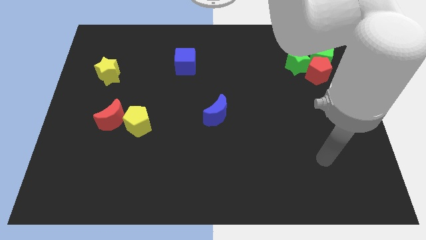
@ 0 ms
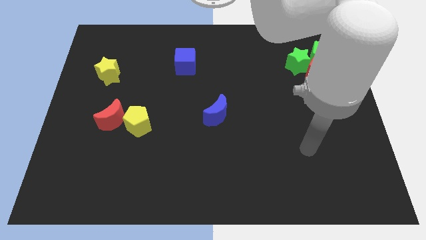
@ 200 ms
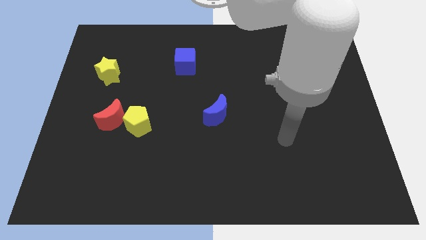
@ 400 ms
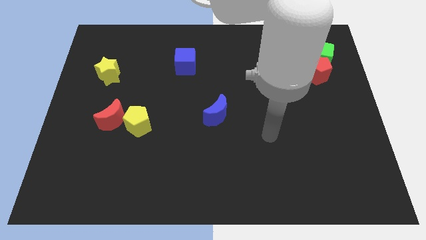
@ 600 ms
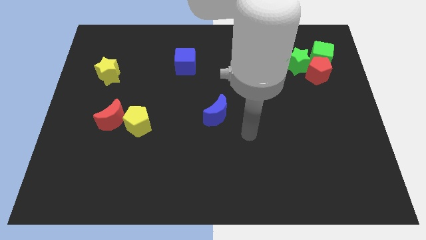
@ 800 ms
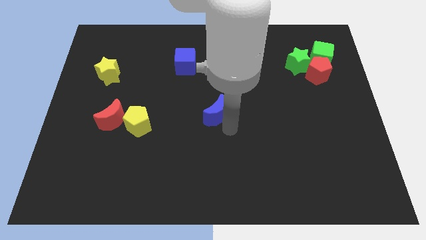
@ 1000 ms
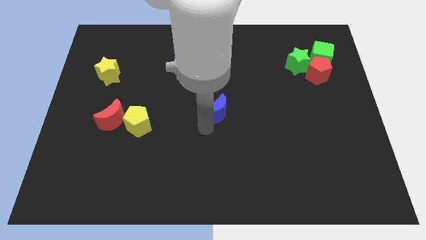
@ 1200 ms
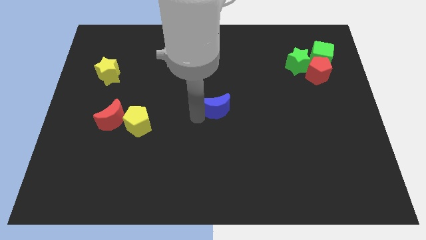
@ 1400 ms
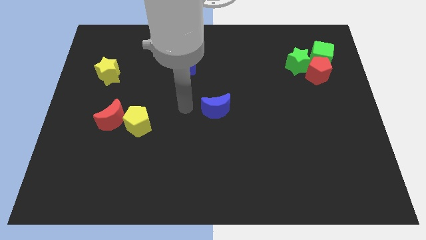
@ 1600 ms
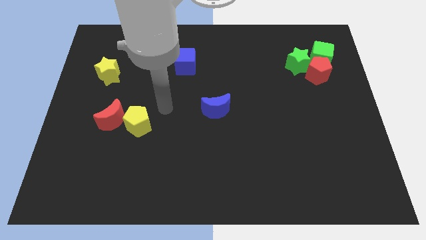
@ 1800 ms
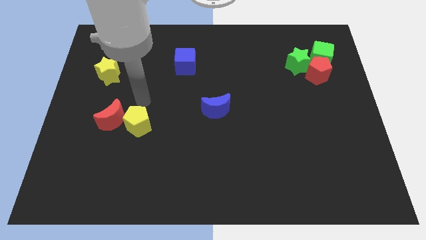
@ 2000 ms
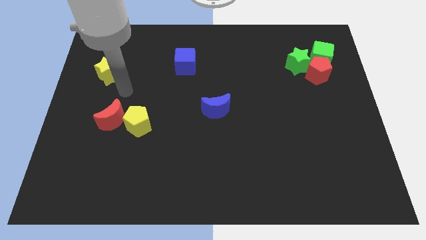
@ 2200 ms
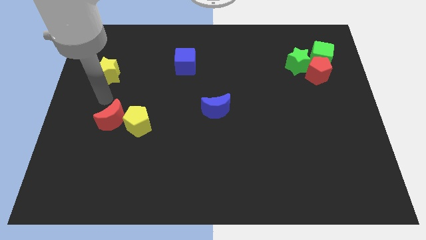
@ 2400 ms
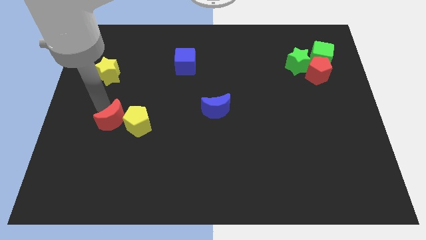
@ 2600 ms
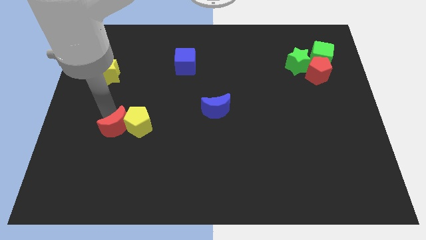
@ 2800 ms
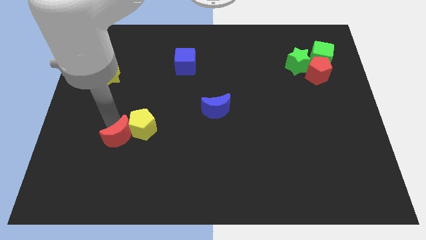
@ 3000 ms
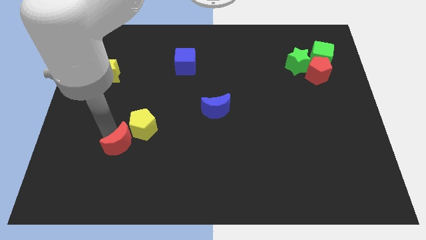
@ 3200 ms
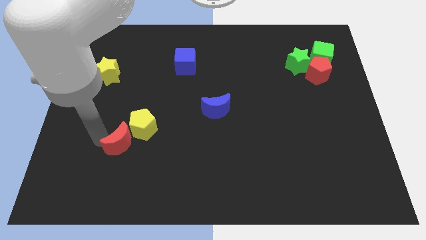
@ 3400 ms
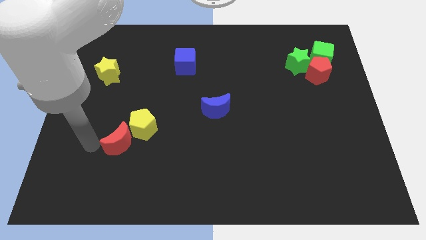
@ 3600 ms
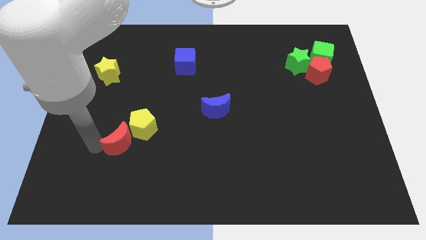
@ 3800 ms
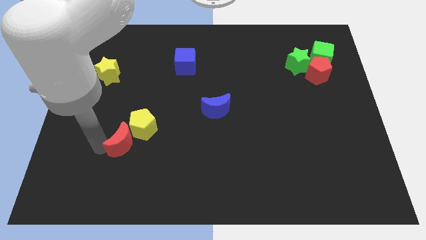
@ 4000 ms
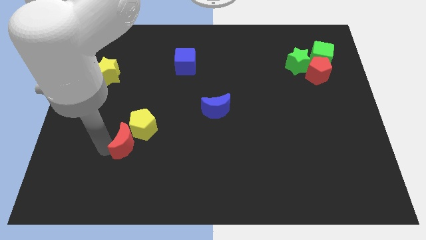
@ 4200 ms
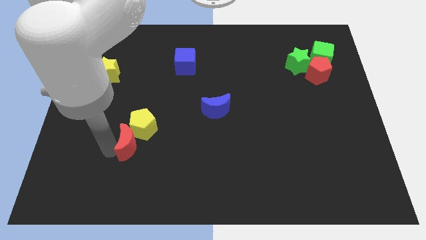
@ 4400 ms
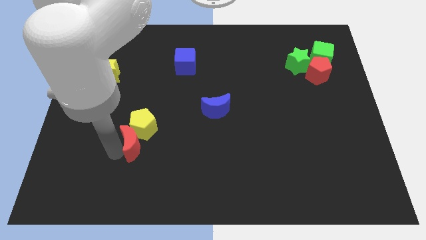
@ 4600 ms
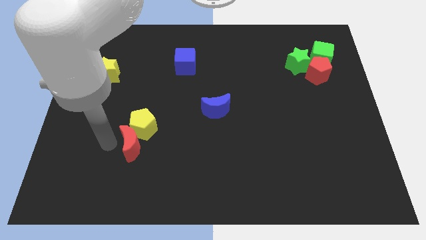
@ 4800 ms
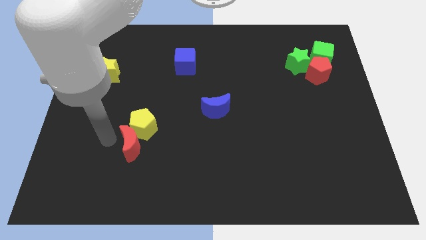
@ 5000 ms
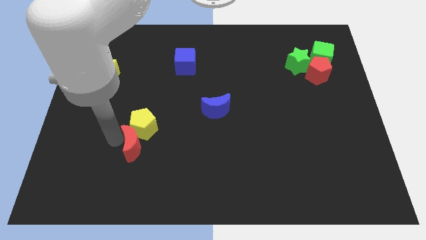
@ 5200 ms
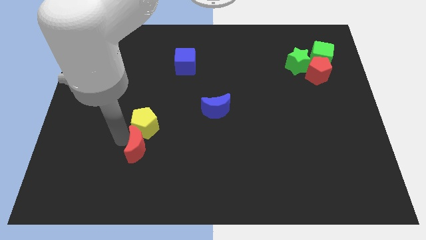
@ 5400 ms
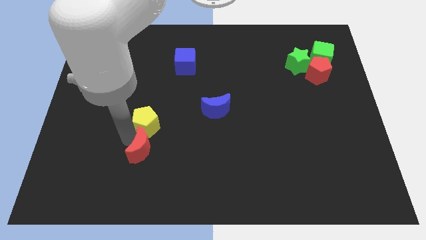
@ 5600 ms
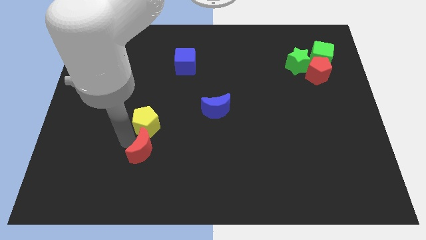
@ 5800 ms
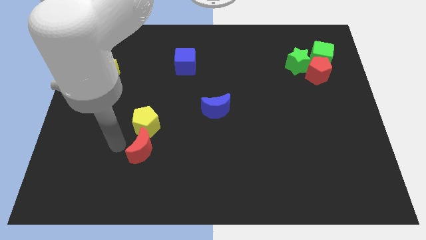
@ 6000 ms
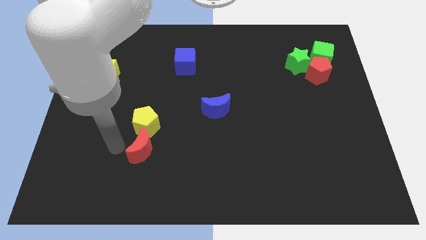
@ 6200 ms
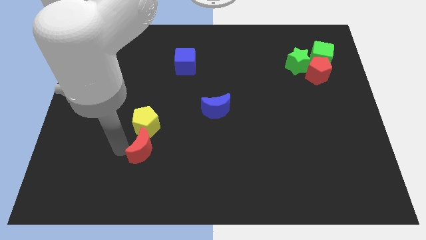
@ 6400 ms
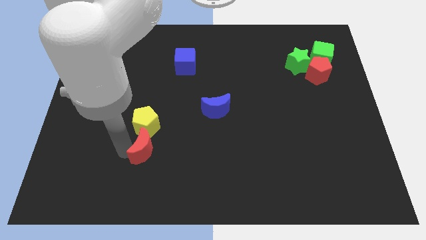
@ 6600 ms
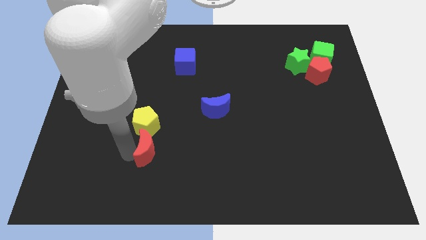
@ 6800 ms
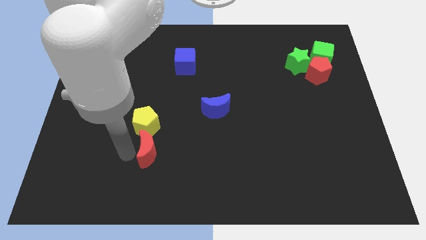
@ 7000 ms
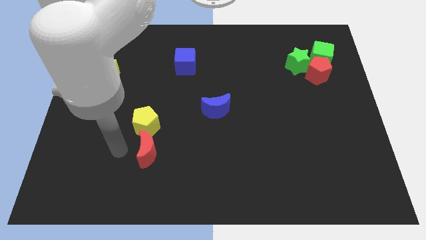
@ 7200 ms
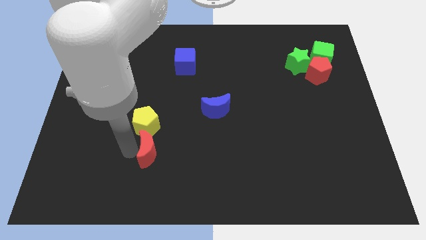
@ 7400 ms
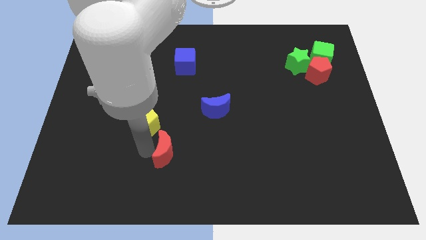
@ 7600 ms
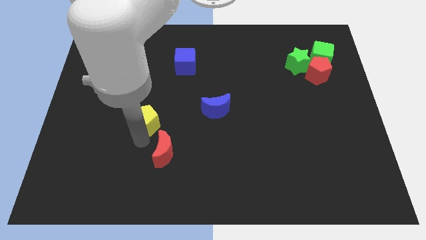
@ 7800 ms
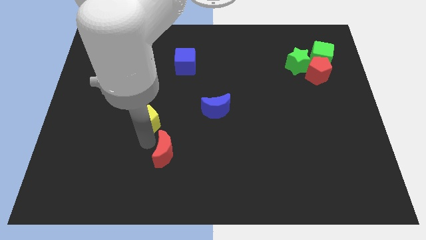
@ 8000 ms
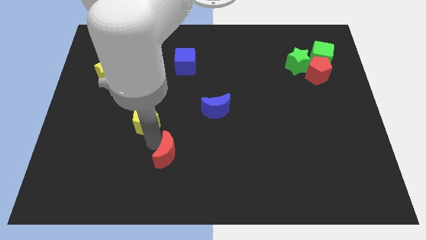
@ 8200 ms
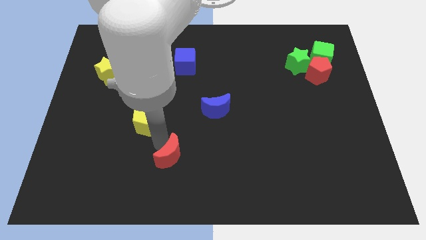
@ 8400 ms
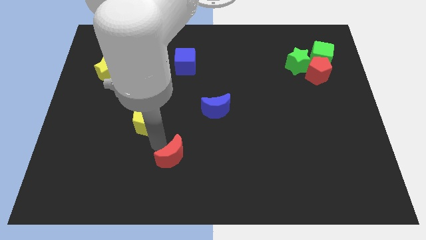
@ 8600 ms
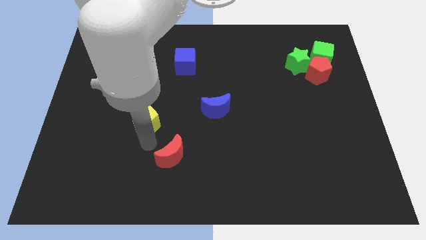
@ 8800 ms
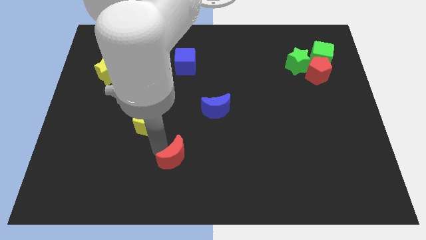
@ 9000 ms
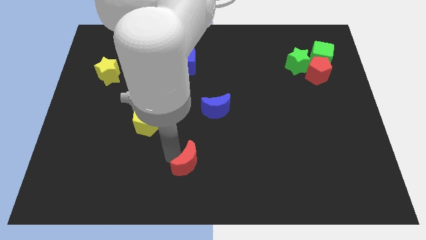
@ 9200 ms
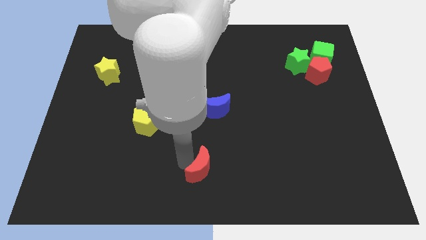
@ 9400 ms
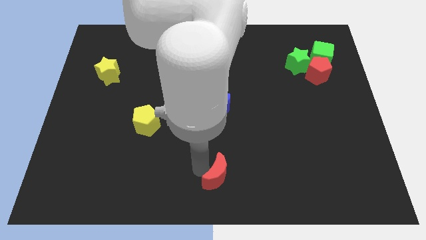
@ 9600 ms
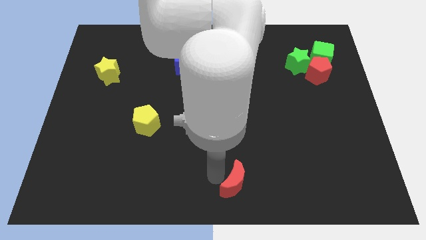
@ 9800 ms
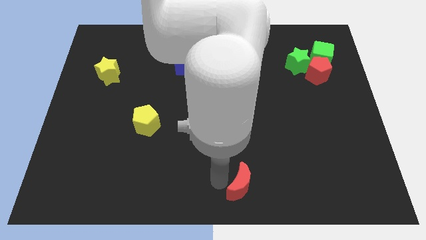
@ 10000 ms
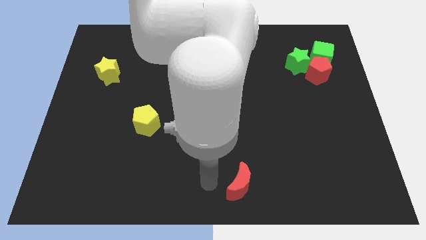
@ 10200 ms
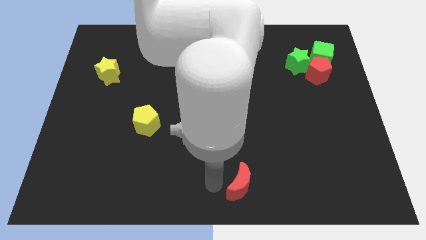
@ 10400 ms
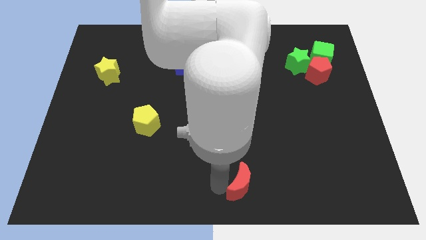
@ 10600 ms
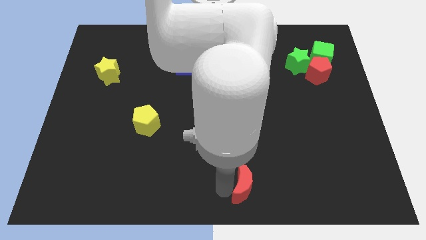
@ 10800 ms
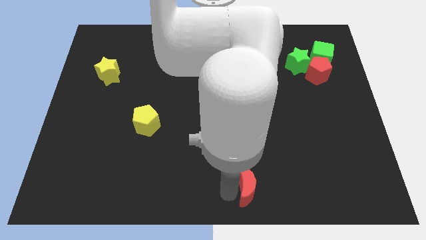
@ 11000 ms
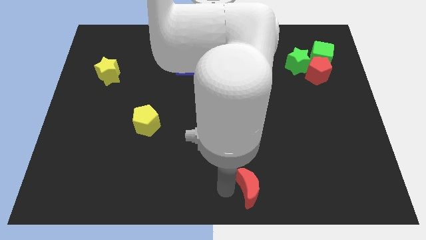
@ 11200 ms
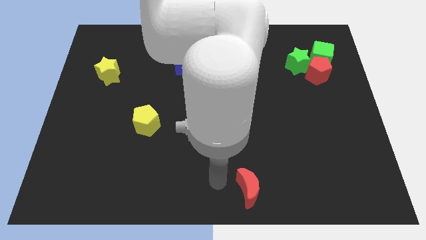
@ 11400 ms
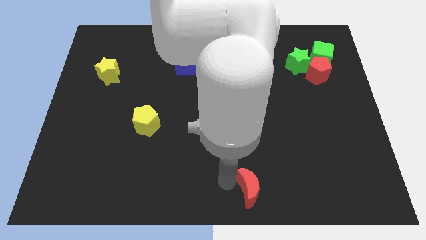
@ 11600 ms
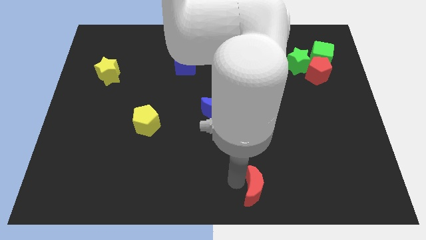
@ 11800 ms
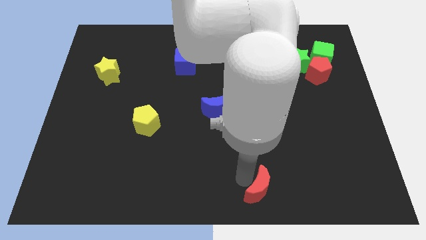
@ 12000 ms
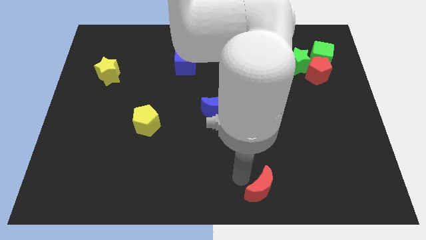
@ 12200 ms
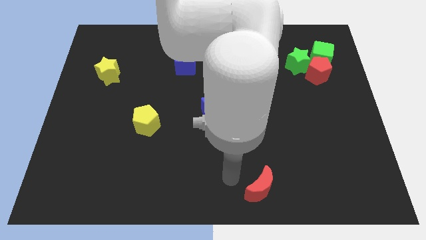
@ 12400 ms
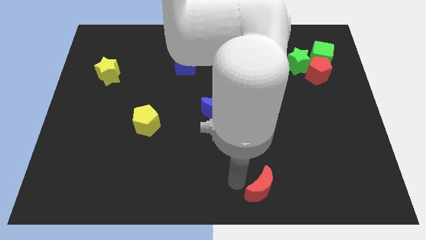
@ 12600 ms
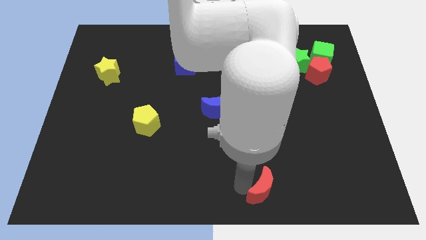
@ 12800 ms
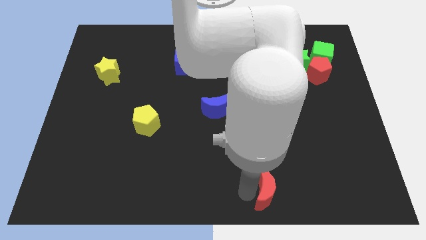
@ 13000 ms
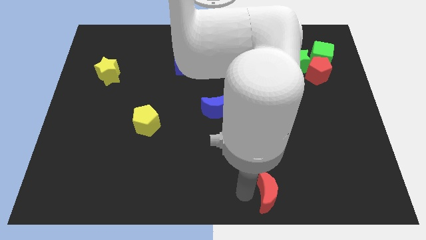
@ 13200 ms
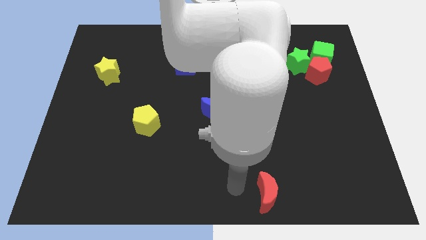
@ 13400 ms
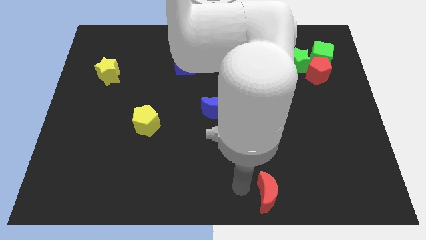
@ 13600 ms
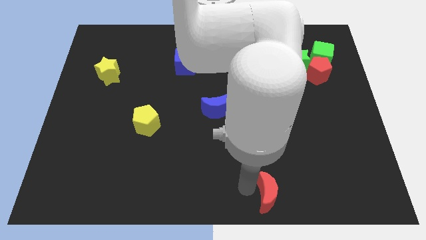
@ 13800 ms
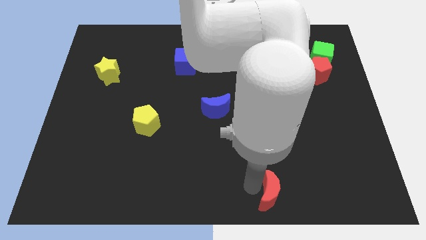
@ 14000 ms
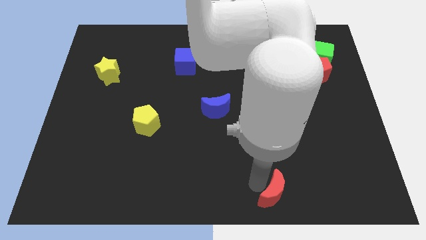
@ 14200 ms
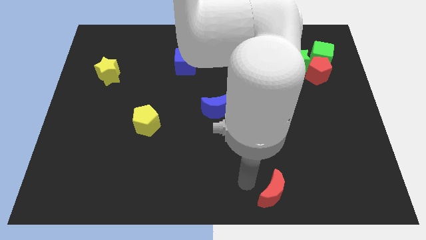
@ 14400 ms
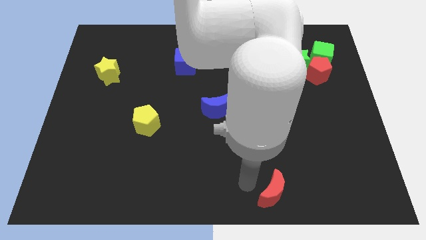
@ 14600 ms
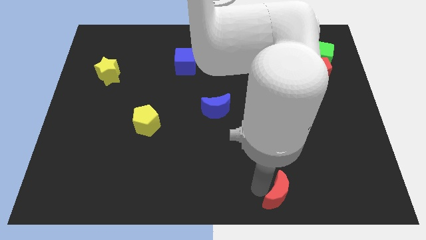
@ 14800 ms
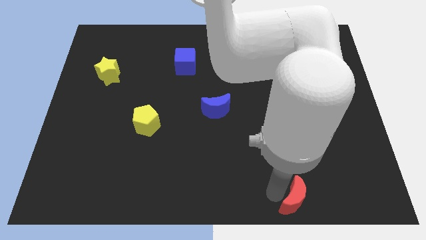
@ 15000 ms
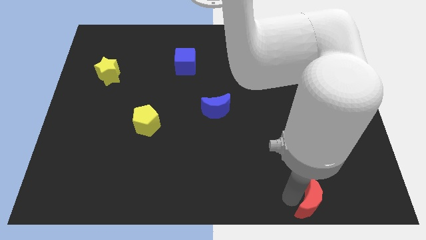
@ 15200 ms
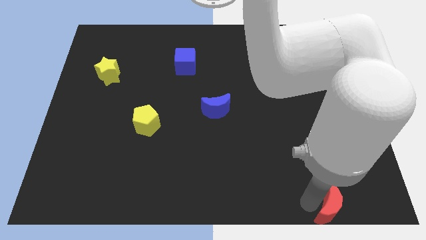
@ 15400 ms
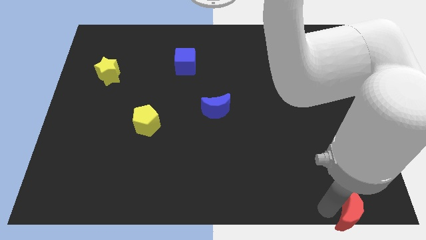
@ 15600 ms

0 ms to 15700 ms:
slide the red moon to the bottom right corner
